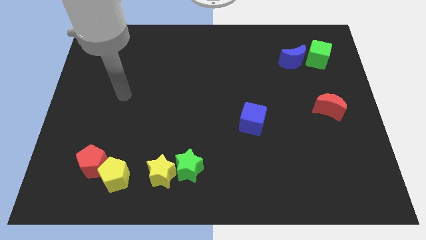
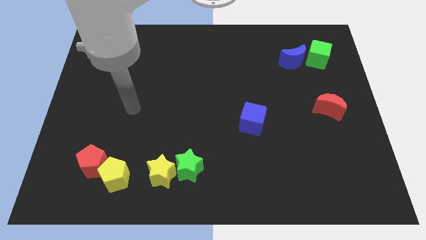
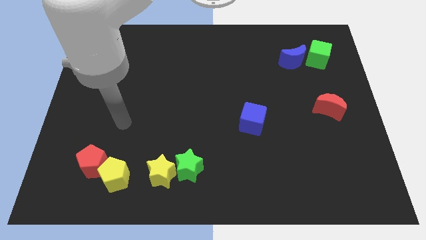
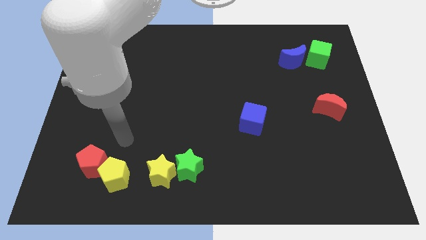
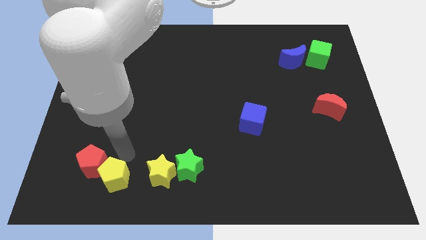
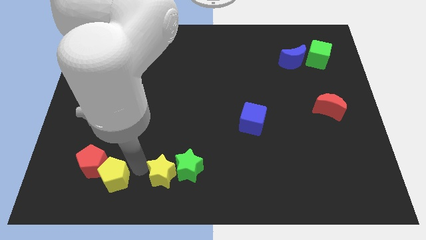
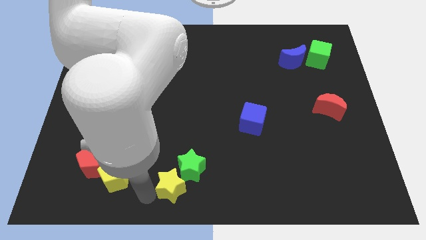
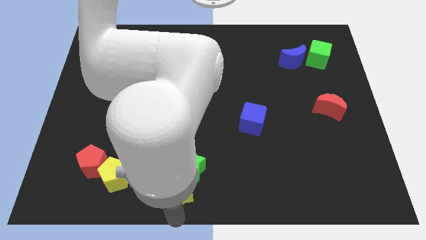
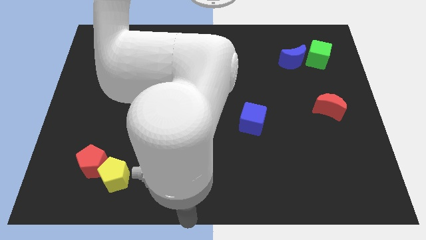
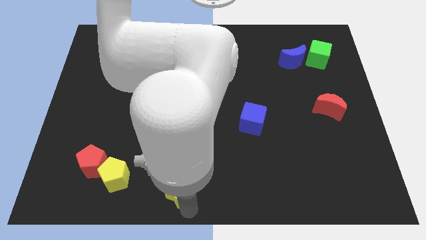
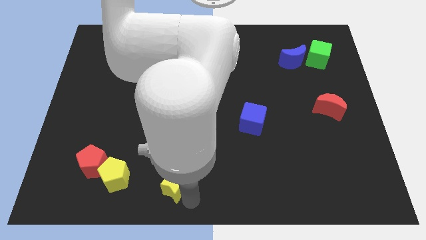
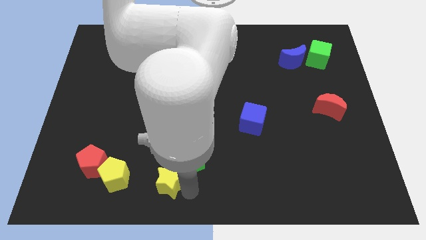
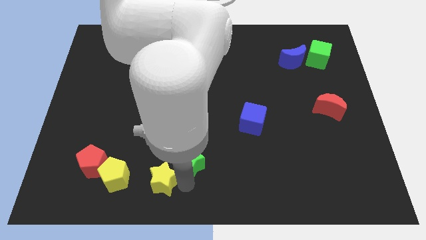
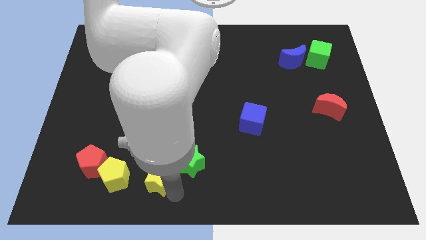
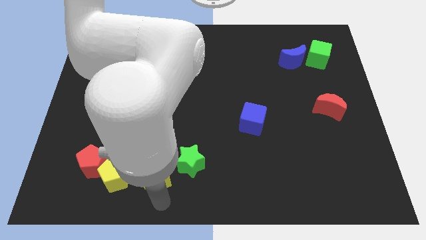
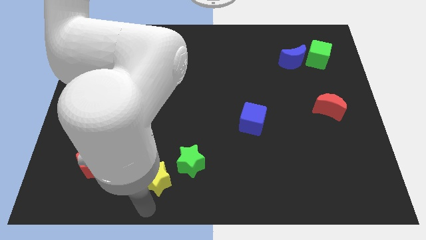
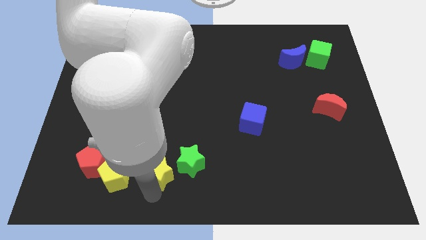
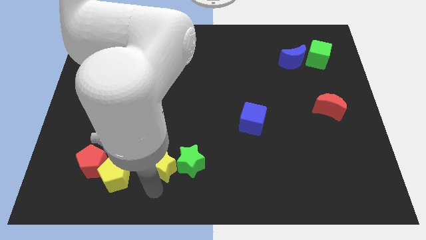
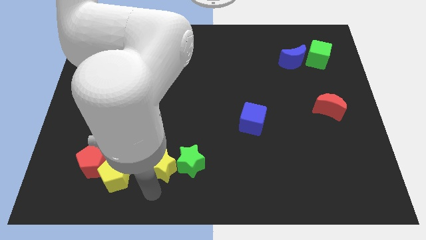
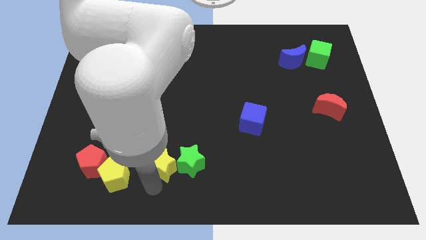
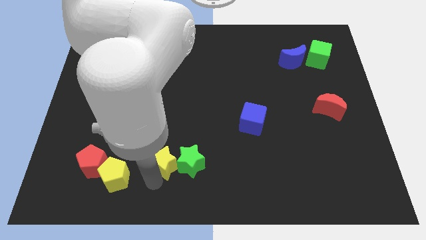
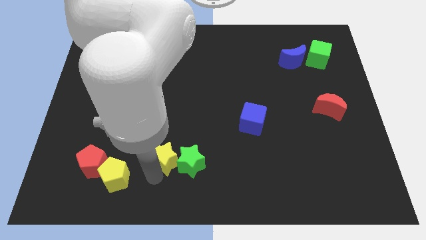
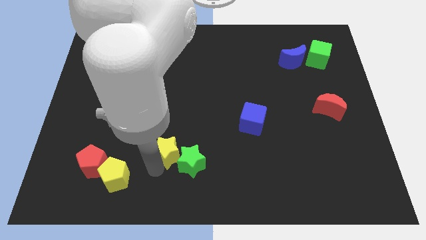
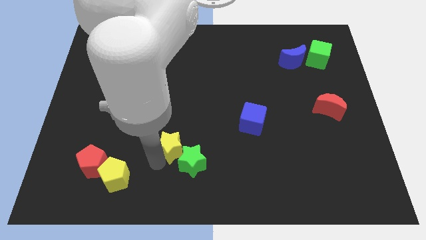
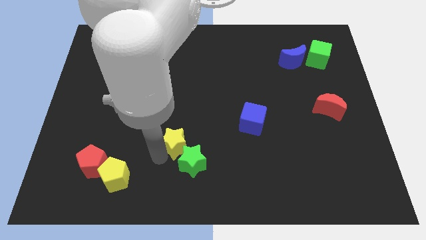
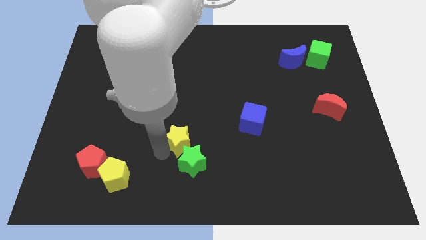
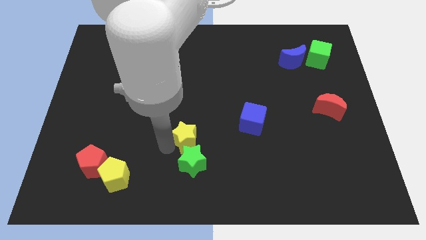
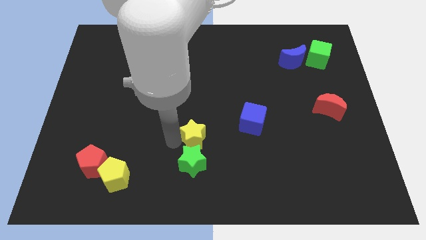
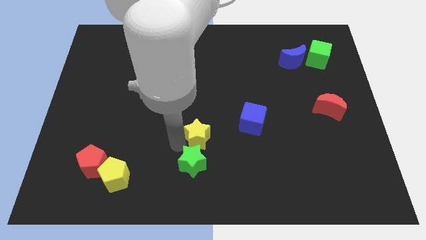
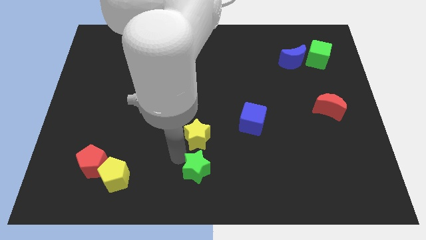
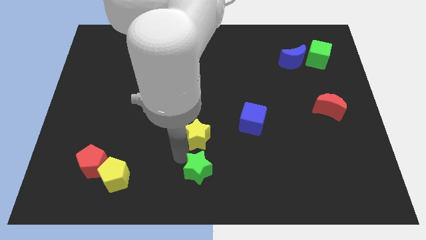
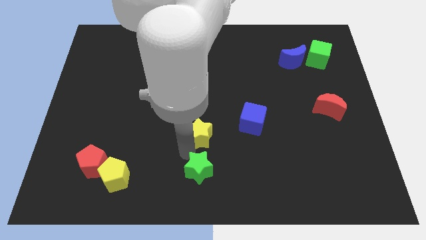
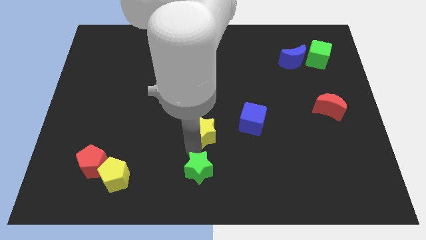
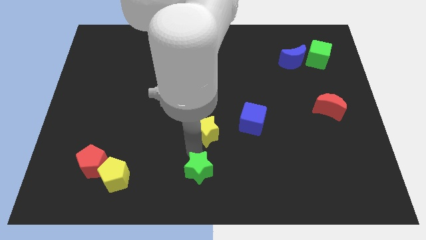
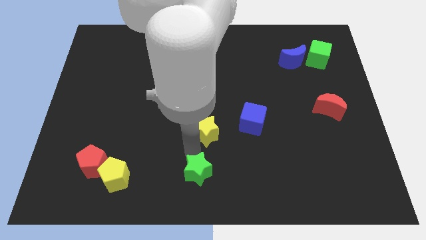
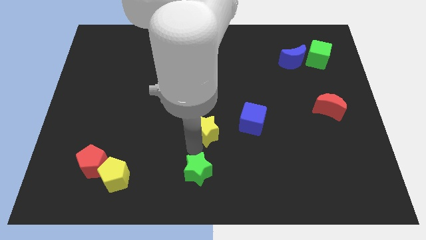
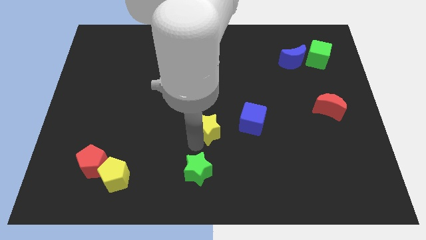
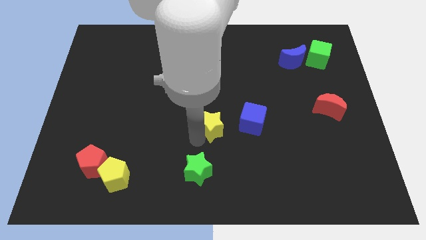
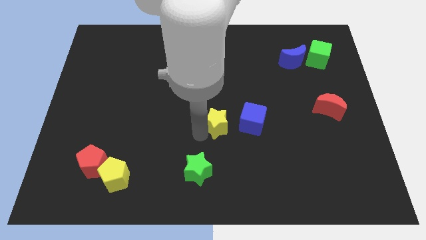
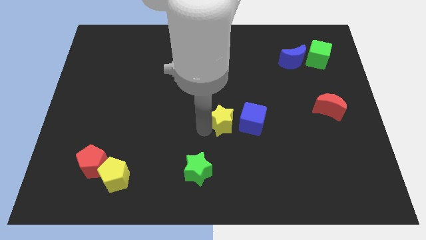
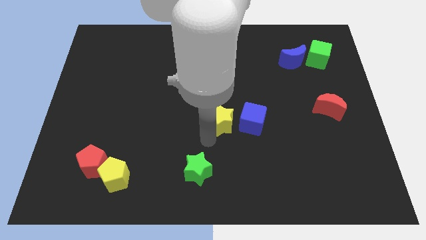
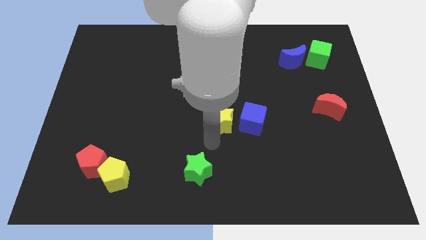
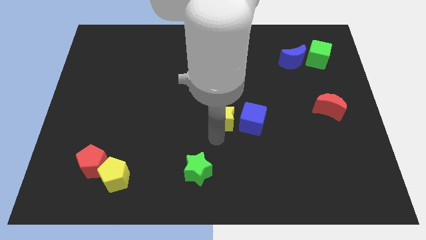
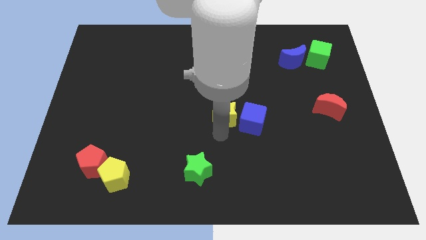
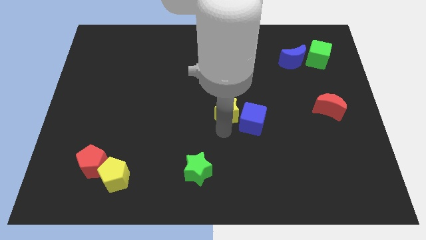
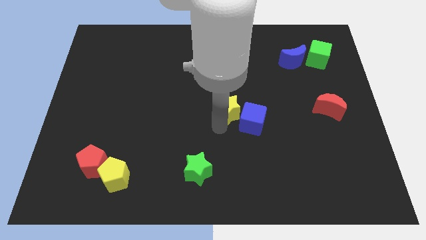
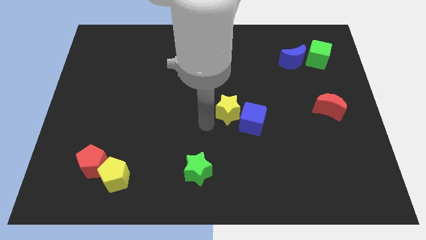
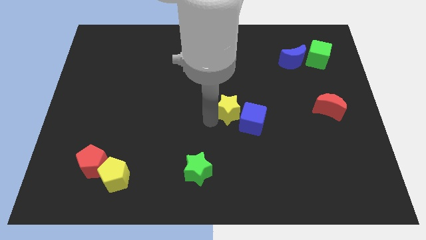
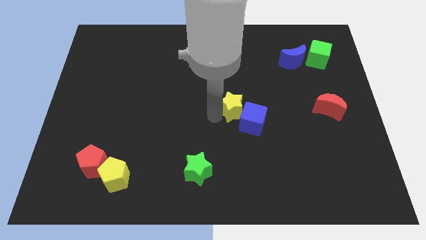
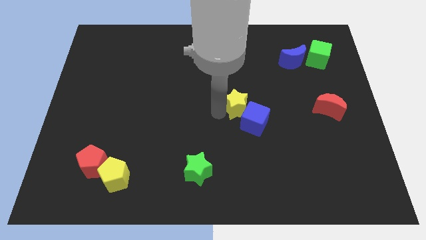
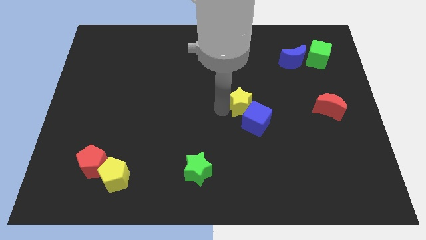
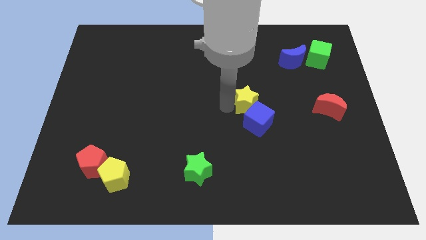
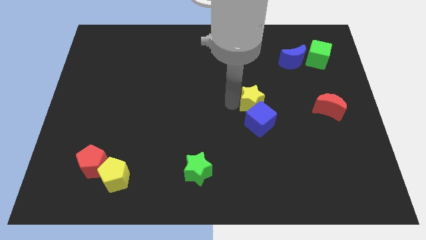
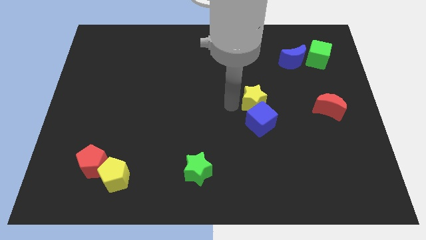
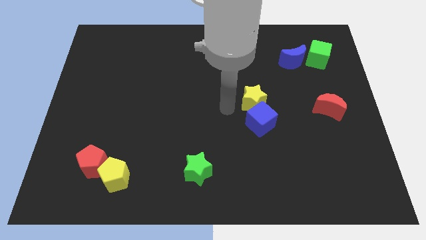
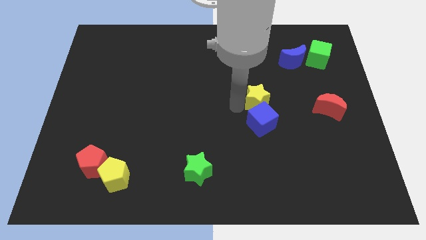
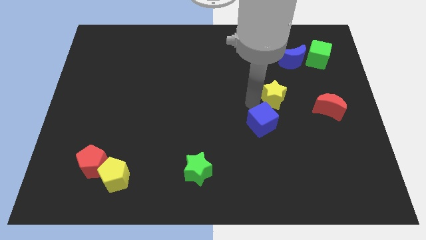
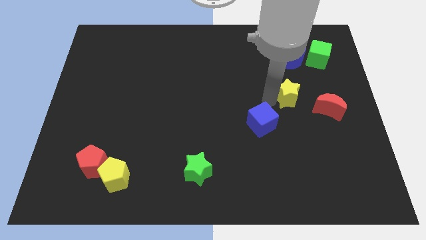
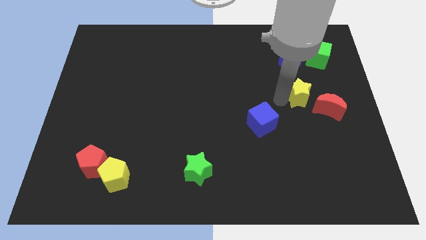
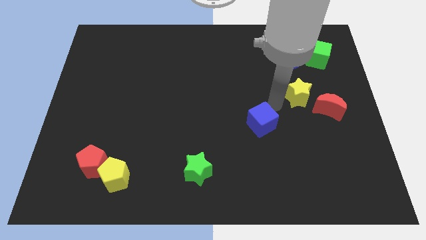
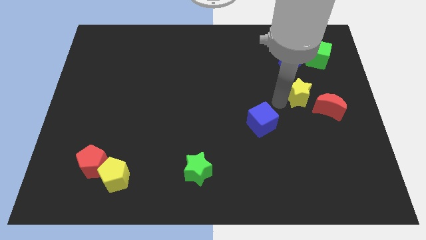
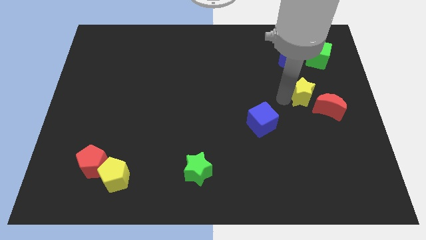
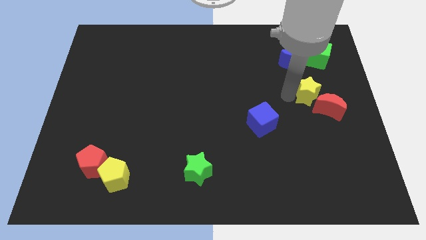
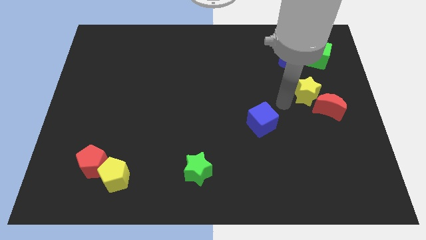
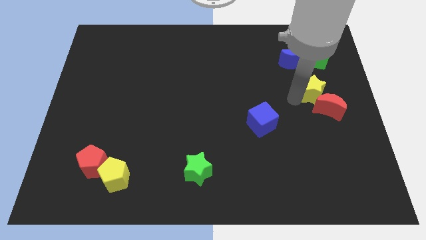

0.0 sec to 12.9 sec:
push the yellow star to the bottom of the green cube

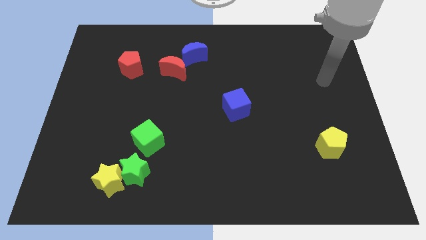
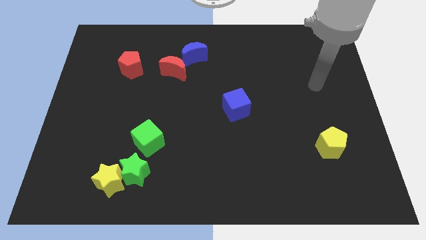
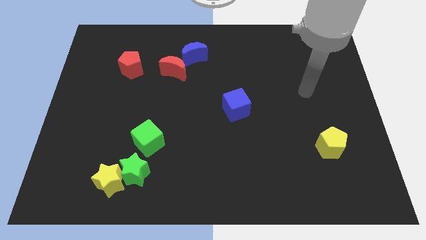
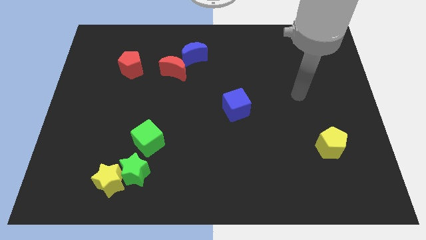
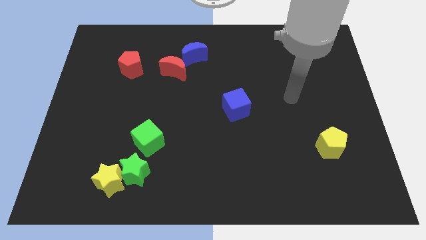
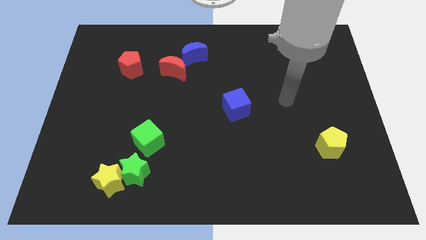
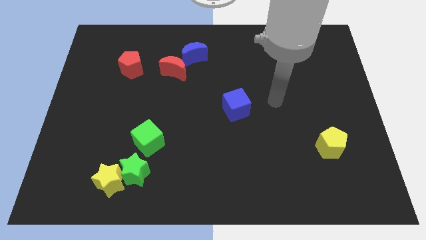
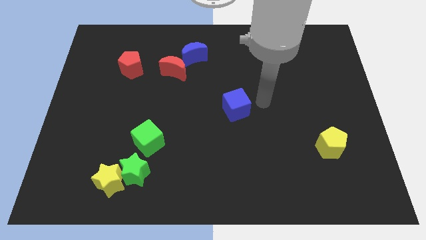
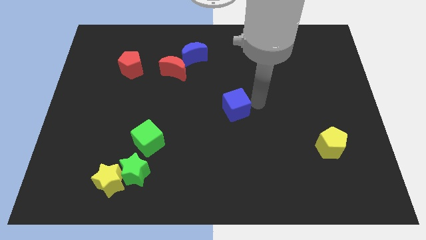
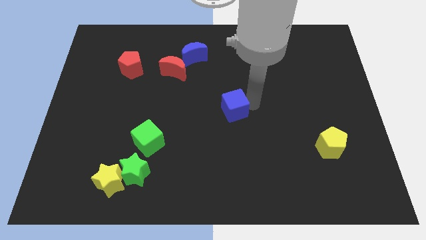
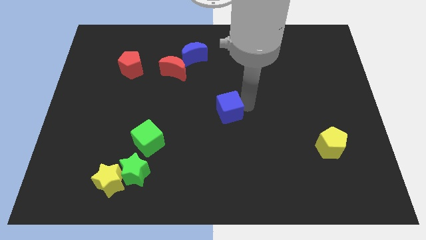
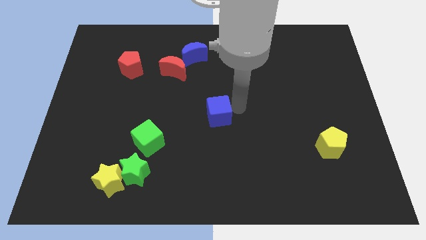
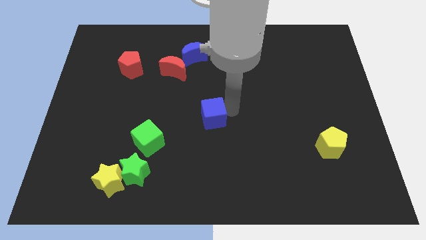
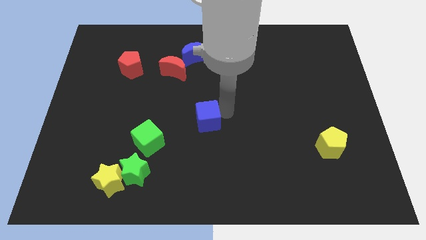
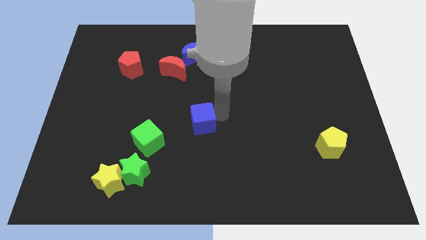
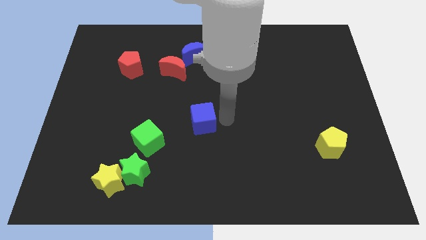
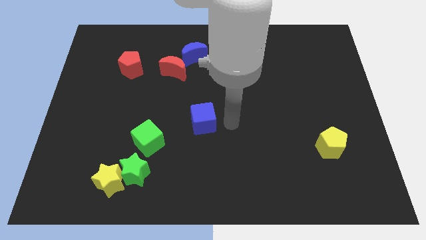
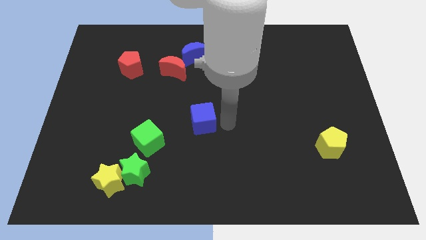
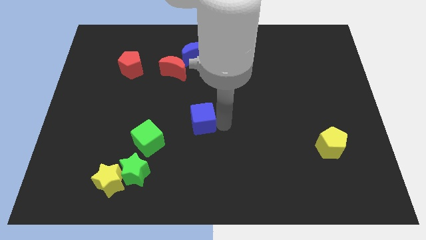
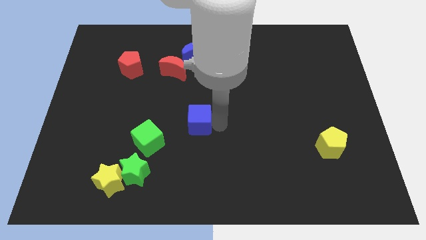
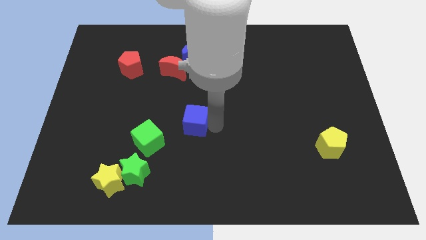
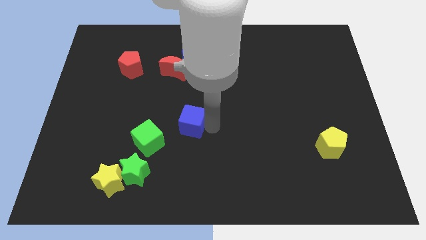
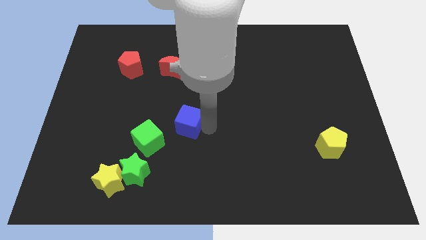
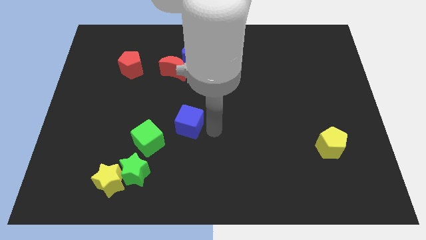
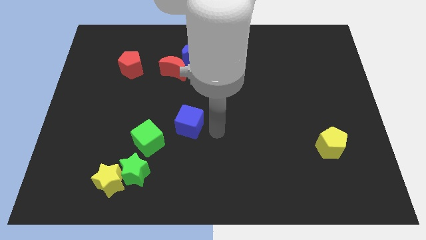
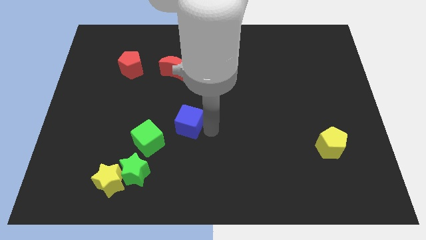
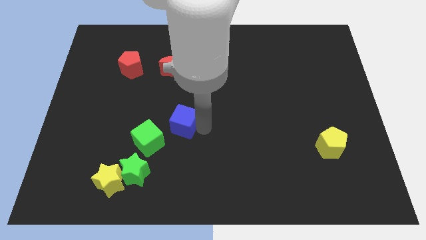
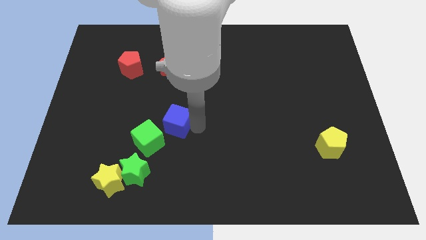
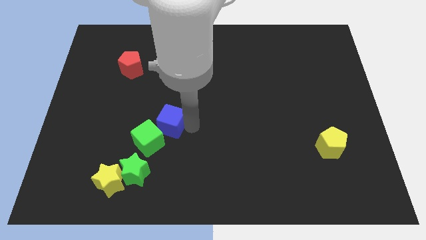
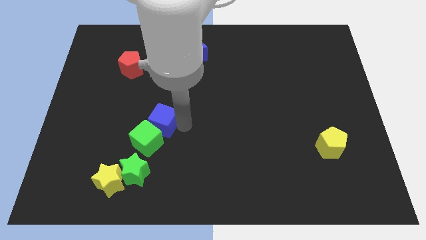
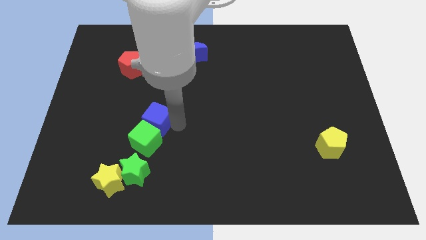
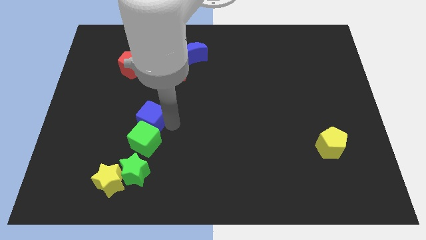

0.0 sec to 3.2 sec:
slide the blue cube to the top left side of the green cube
